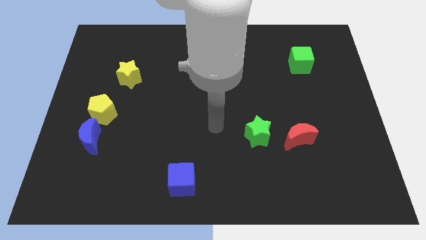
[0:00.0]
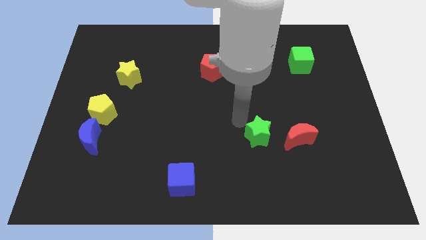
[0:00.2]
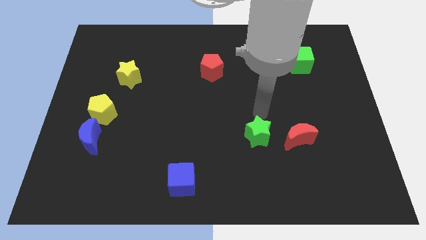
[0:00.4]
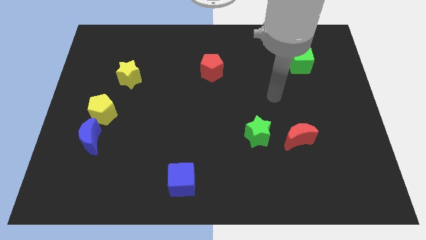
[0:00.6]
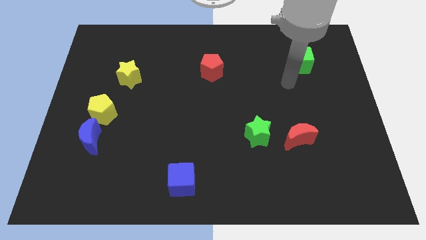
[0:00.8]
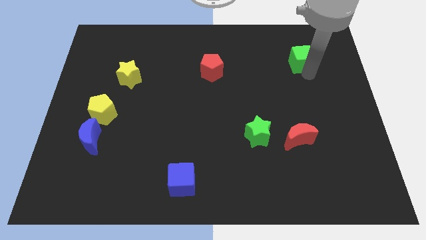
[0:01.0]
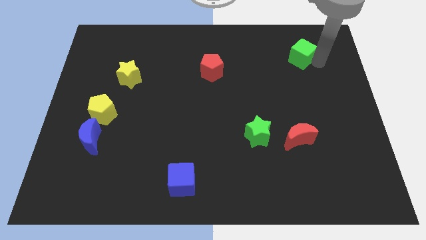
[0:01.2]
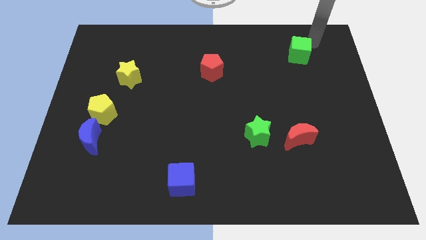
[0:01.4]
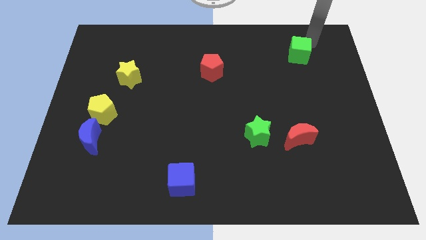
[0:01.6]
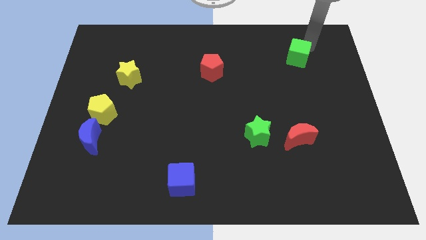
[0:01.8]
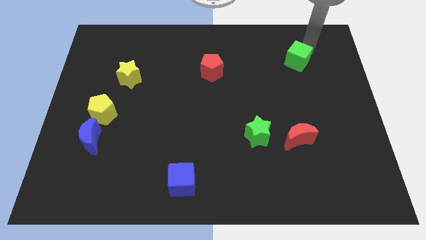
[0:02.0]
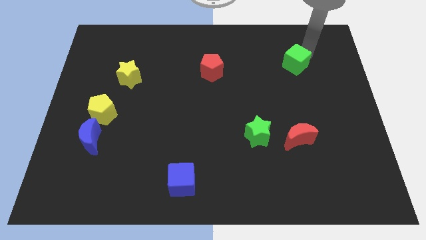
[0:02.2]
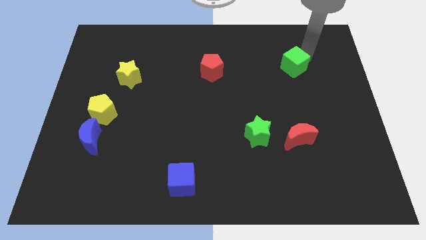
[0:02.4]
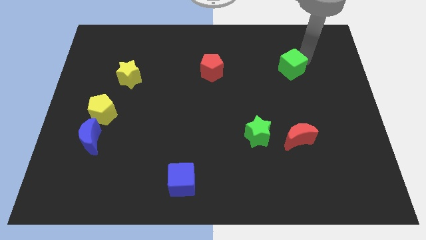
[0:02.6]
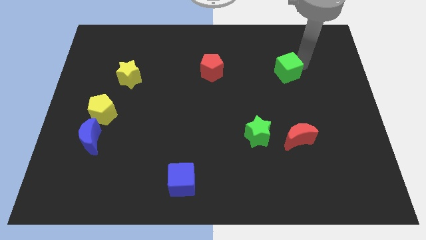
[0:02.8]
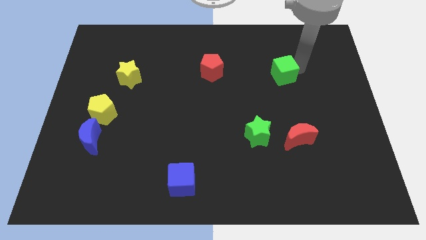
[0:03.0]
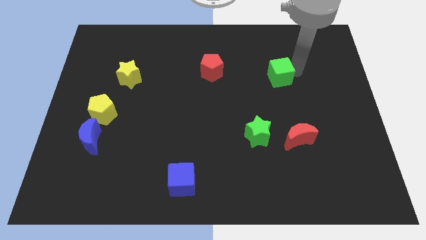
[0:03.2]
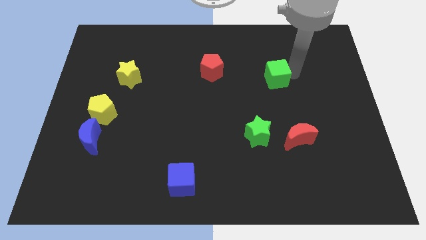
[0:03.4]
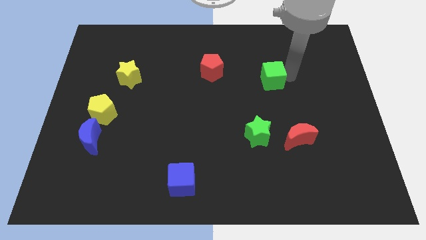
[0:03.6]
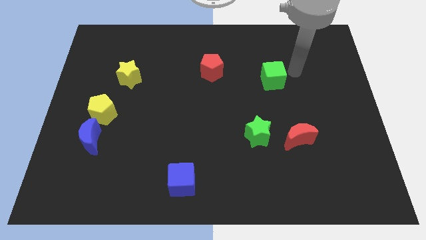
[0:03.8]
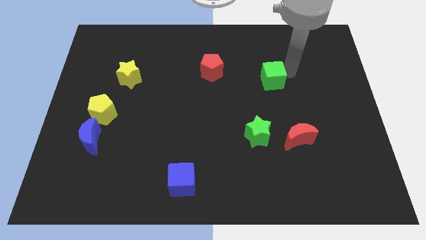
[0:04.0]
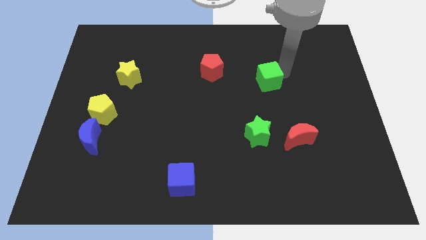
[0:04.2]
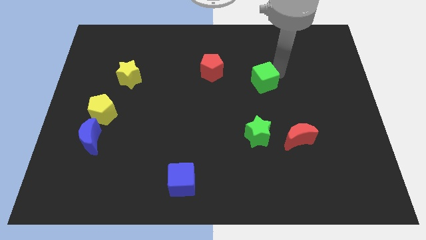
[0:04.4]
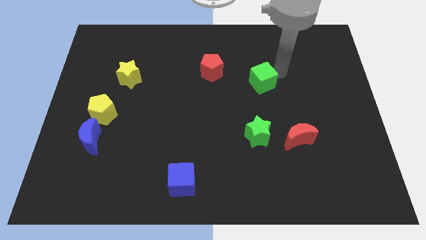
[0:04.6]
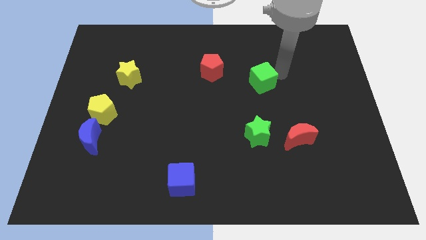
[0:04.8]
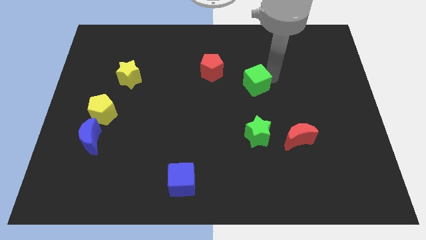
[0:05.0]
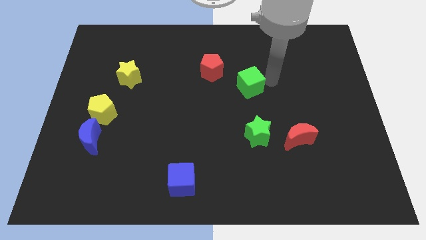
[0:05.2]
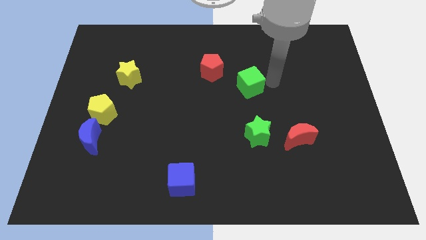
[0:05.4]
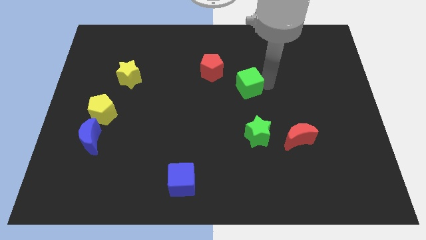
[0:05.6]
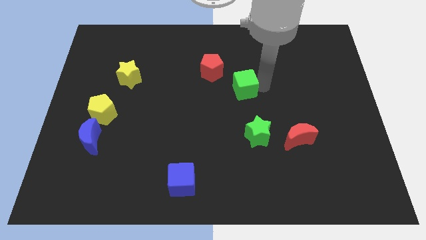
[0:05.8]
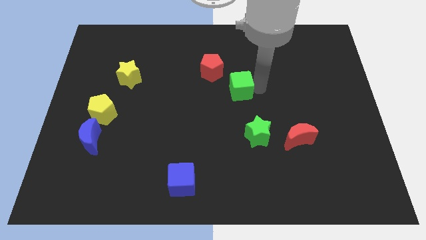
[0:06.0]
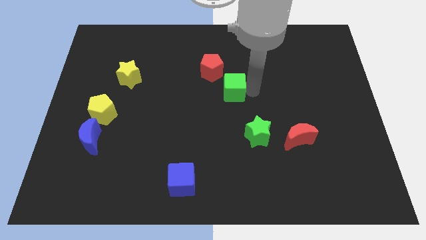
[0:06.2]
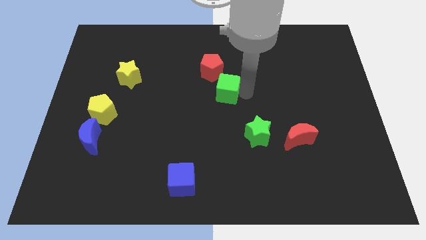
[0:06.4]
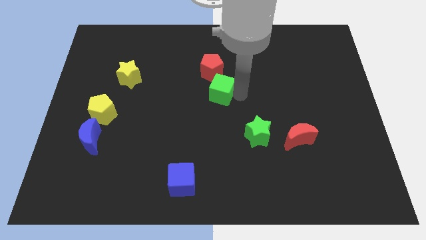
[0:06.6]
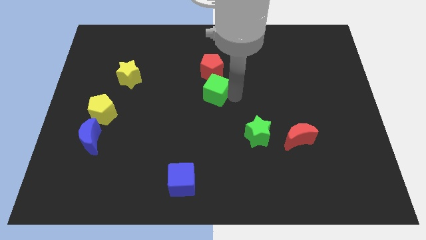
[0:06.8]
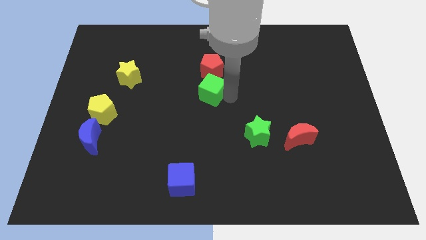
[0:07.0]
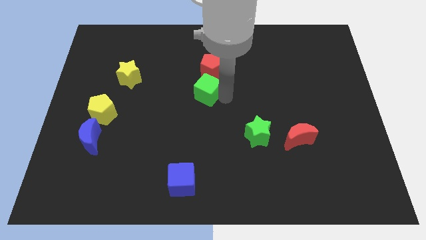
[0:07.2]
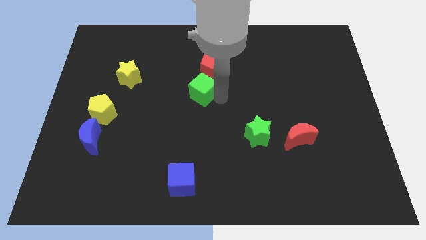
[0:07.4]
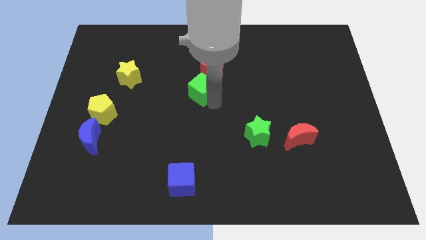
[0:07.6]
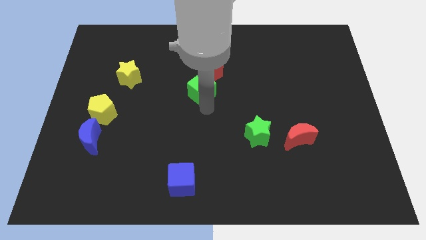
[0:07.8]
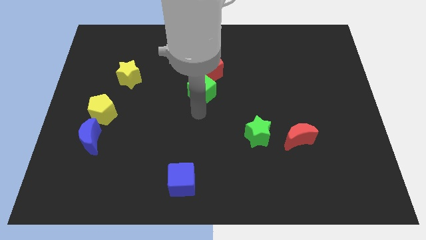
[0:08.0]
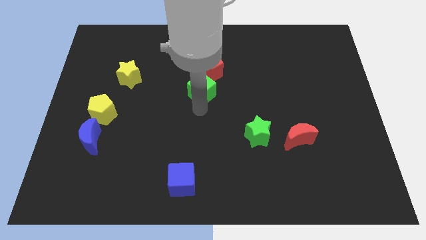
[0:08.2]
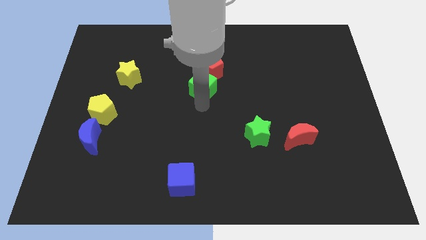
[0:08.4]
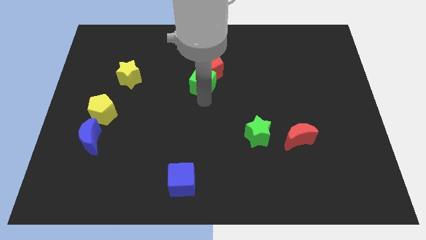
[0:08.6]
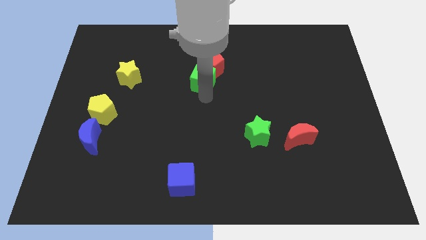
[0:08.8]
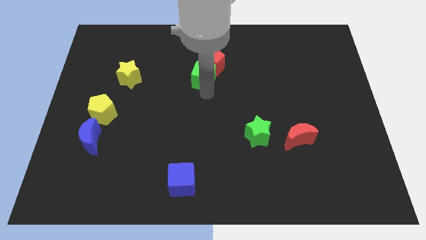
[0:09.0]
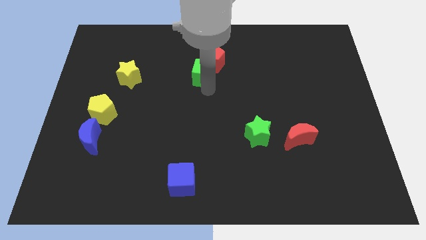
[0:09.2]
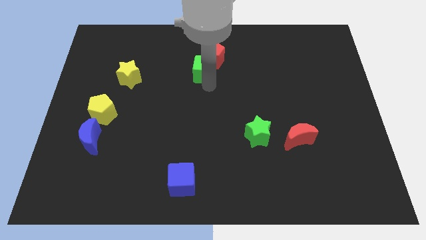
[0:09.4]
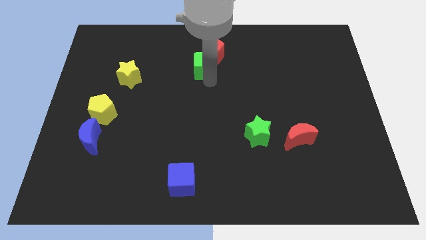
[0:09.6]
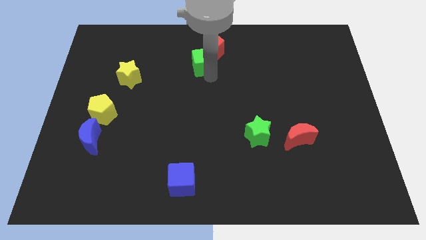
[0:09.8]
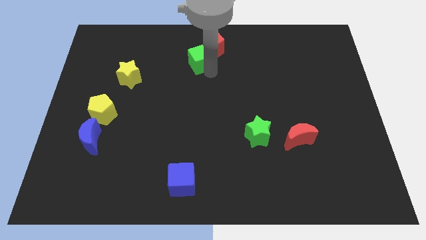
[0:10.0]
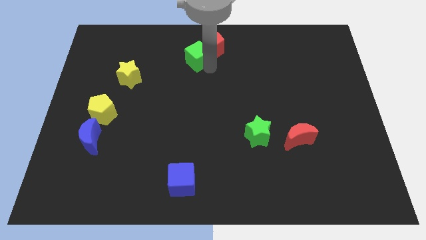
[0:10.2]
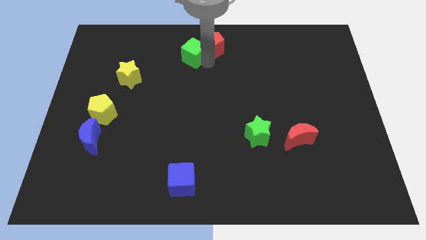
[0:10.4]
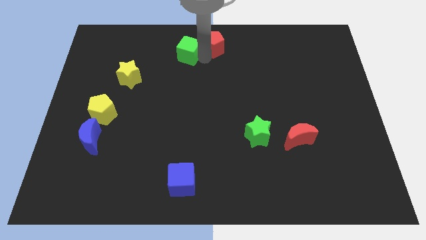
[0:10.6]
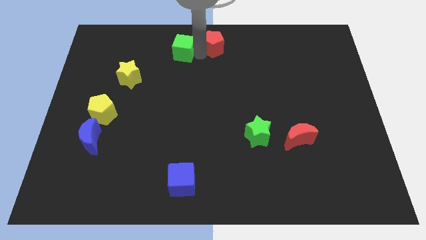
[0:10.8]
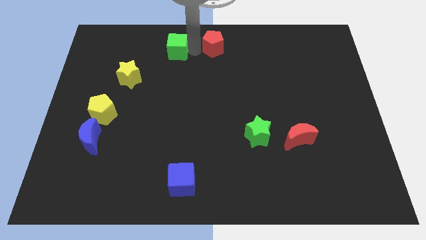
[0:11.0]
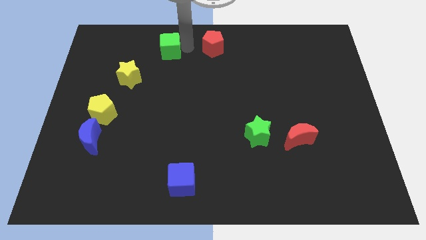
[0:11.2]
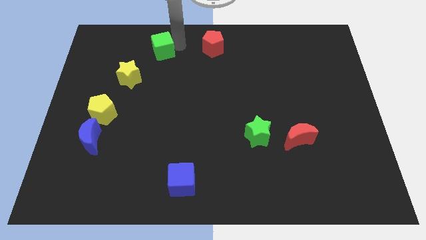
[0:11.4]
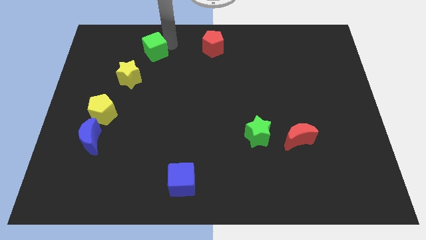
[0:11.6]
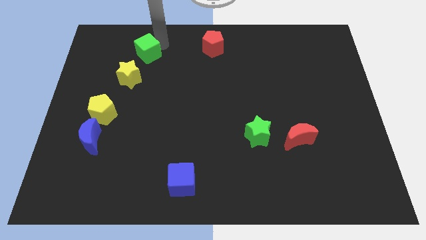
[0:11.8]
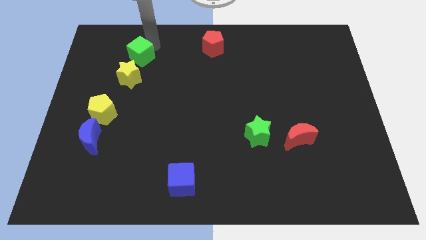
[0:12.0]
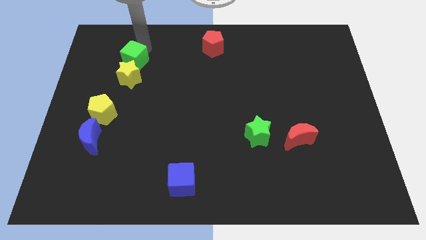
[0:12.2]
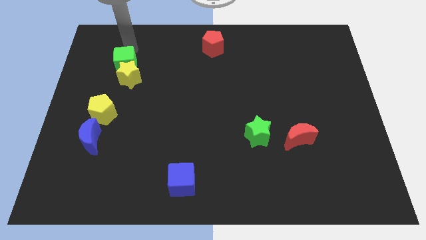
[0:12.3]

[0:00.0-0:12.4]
move the green cube towards the yellow star

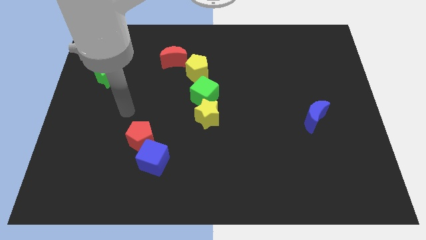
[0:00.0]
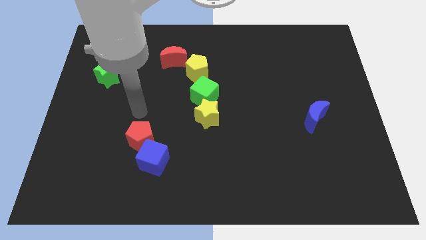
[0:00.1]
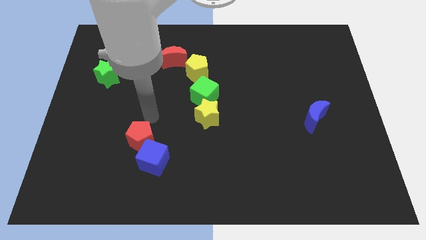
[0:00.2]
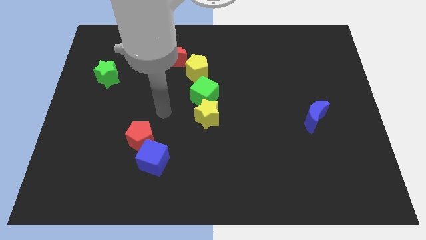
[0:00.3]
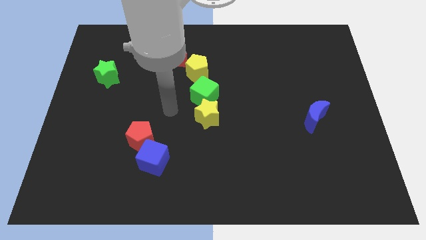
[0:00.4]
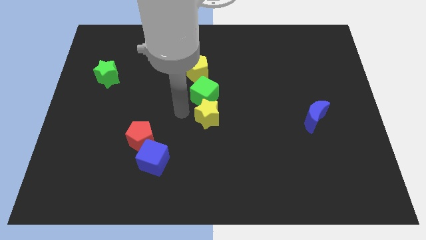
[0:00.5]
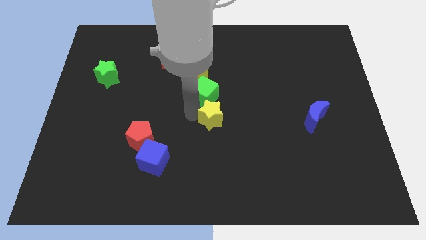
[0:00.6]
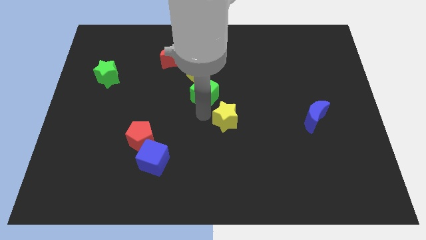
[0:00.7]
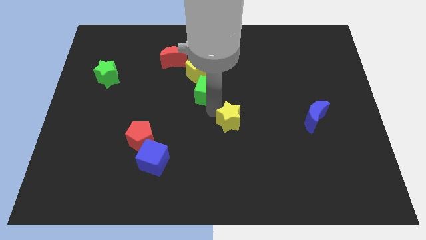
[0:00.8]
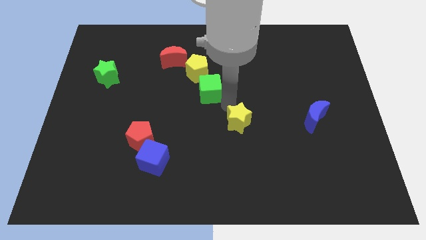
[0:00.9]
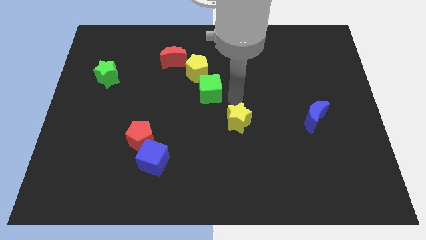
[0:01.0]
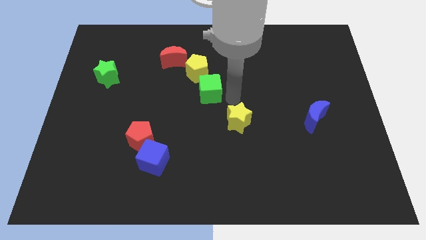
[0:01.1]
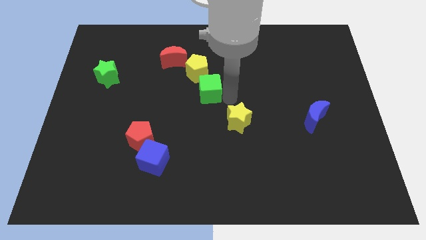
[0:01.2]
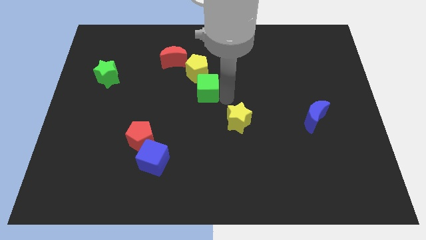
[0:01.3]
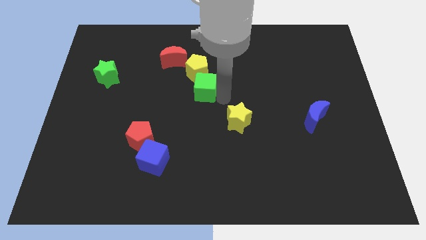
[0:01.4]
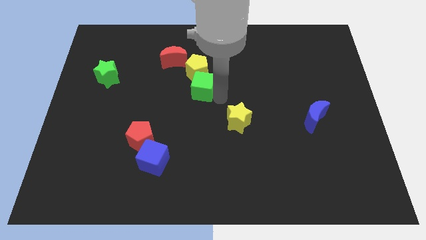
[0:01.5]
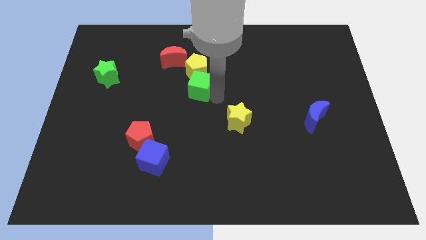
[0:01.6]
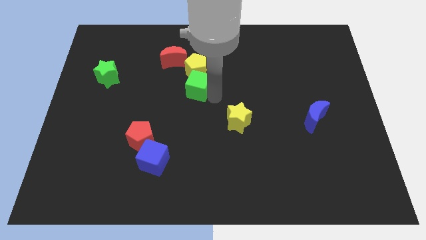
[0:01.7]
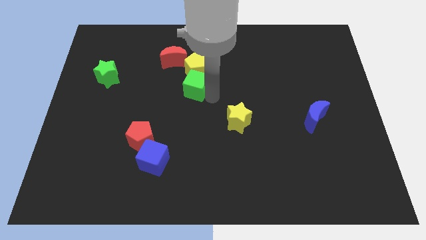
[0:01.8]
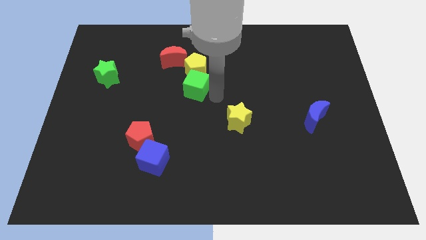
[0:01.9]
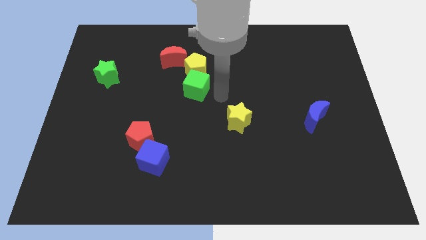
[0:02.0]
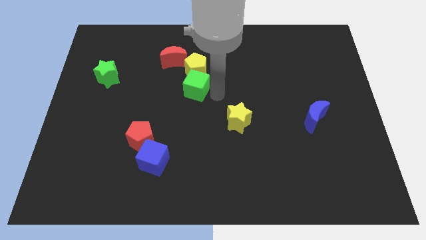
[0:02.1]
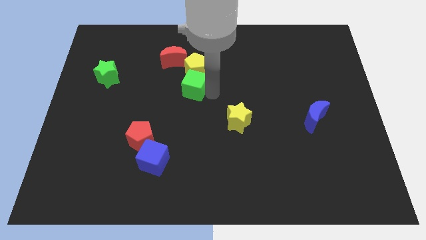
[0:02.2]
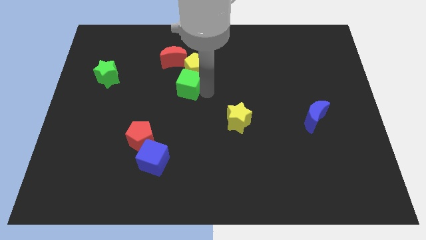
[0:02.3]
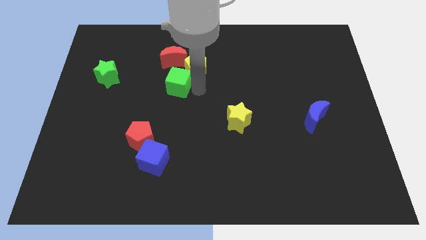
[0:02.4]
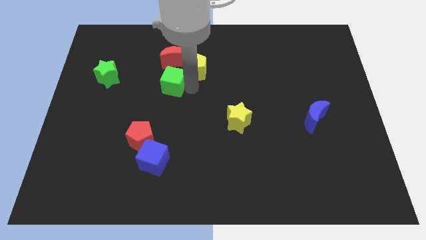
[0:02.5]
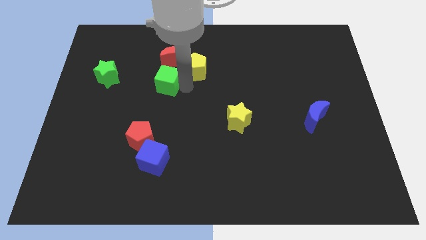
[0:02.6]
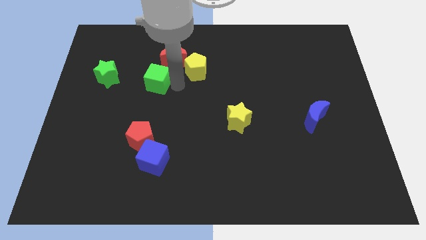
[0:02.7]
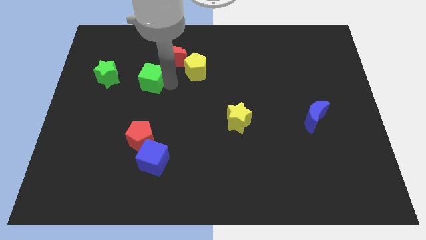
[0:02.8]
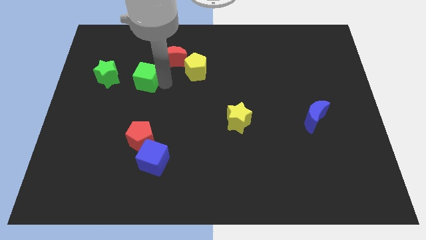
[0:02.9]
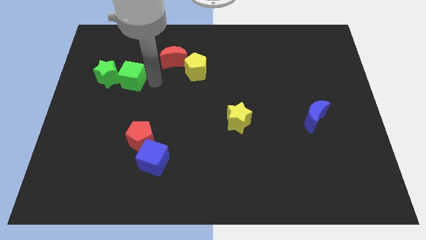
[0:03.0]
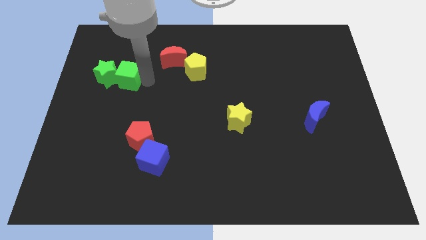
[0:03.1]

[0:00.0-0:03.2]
slide the green cube next to the green star
